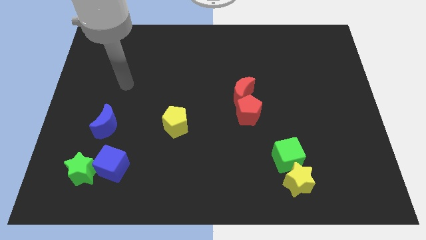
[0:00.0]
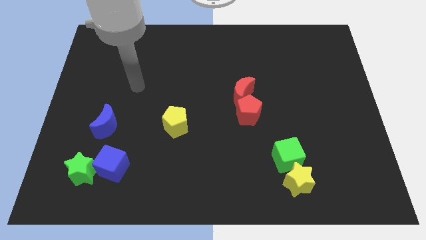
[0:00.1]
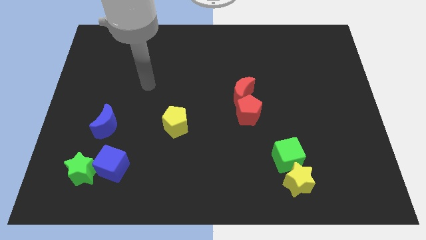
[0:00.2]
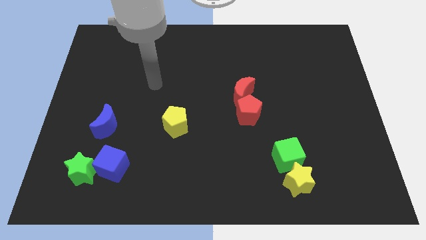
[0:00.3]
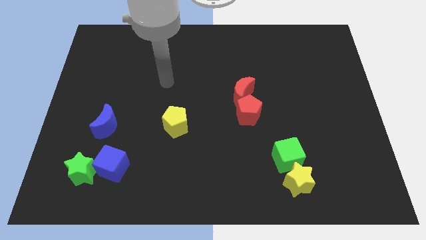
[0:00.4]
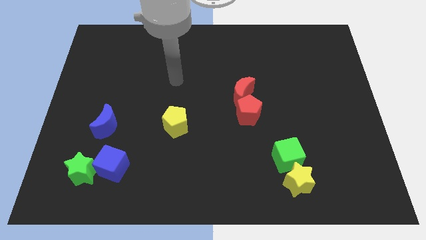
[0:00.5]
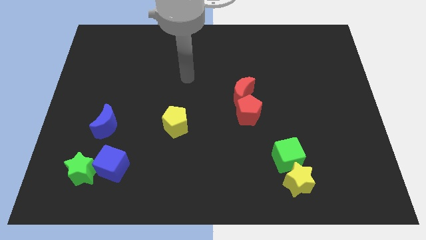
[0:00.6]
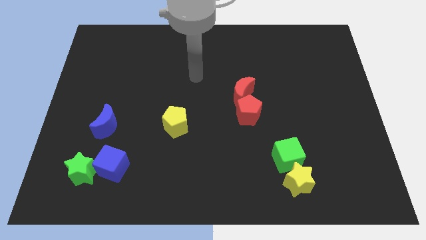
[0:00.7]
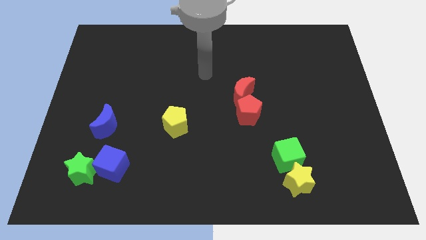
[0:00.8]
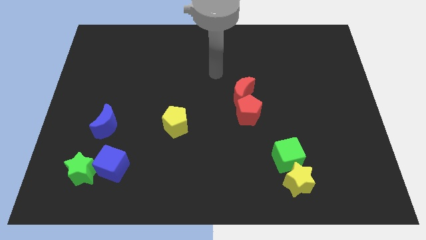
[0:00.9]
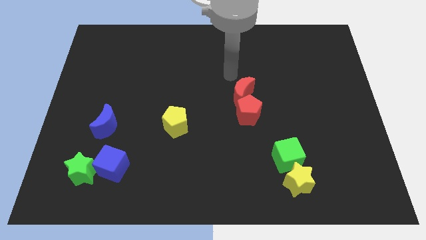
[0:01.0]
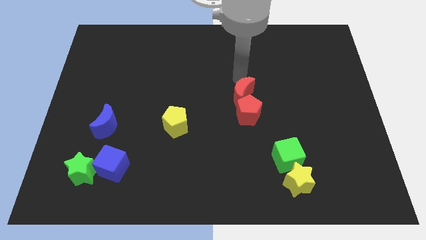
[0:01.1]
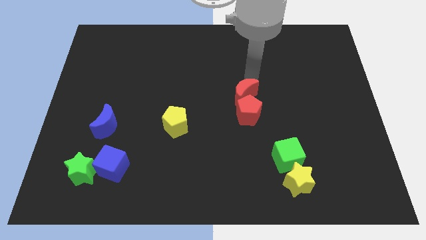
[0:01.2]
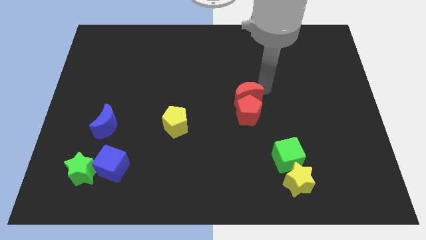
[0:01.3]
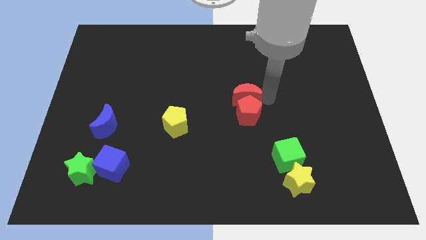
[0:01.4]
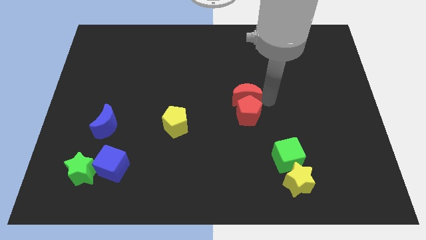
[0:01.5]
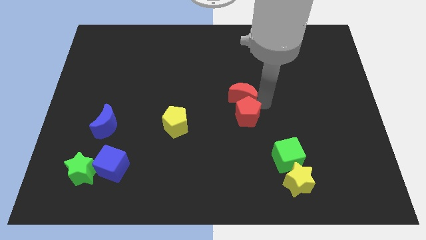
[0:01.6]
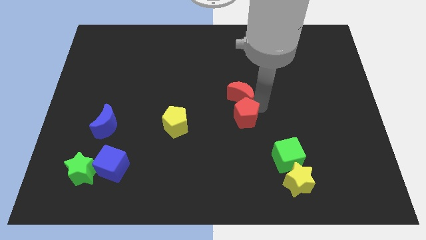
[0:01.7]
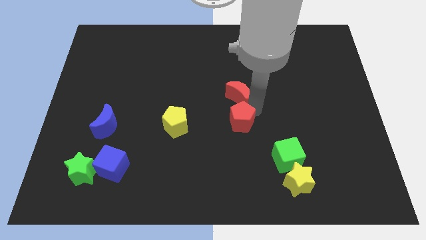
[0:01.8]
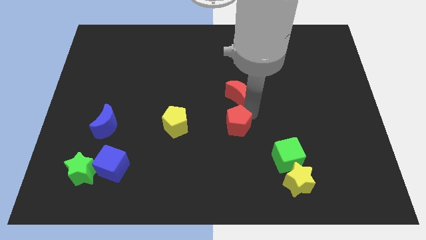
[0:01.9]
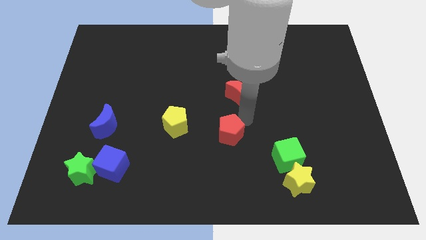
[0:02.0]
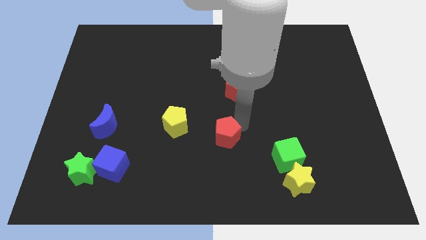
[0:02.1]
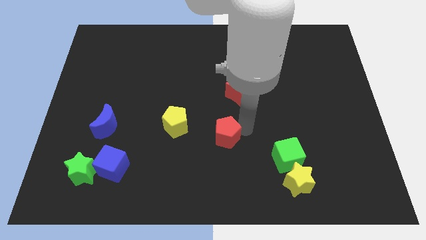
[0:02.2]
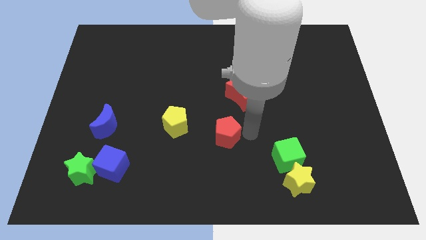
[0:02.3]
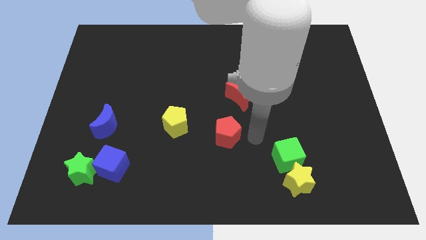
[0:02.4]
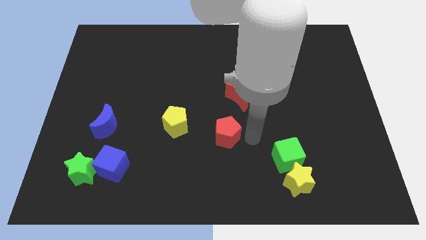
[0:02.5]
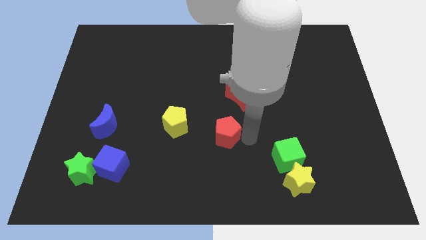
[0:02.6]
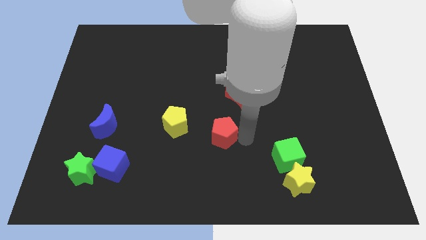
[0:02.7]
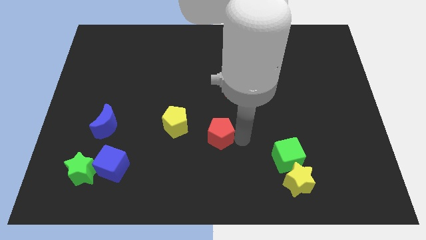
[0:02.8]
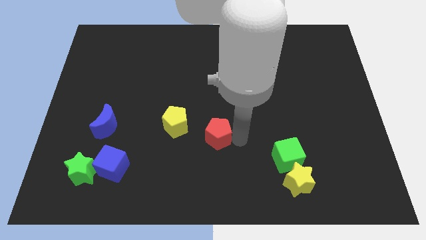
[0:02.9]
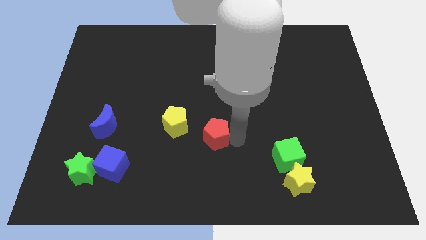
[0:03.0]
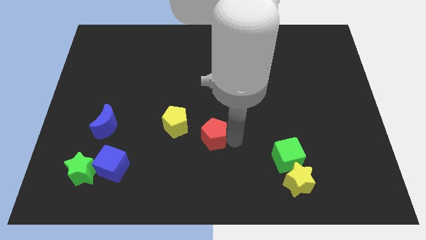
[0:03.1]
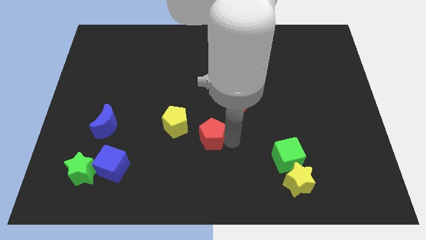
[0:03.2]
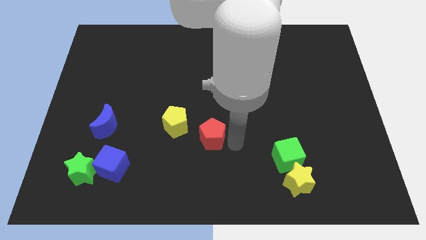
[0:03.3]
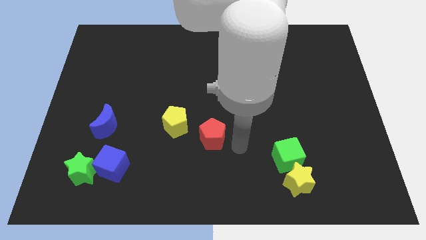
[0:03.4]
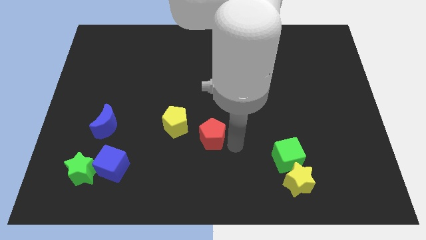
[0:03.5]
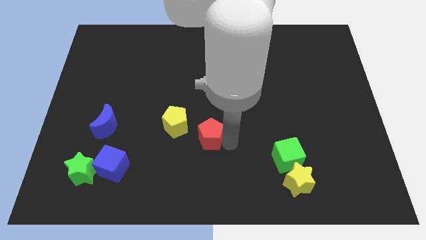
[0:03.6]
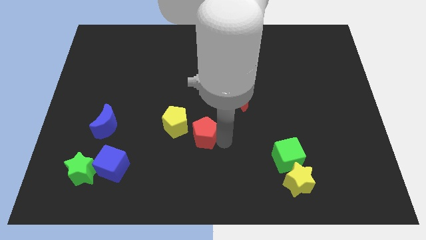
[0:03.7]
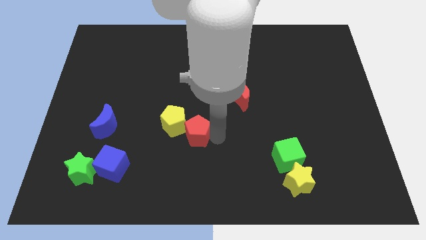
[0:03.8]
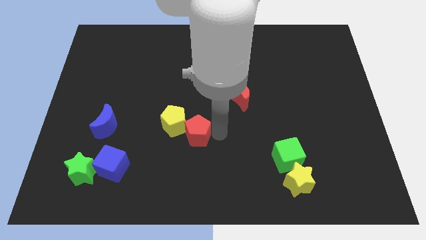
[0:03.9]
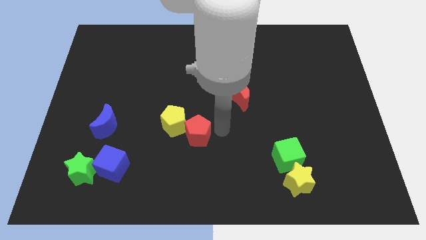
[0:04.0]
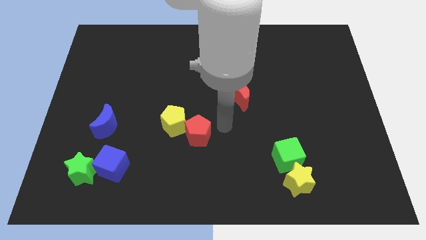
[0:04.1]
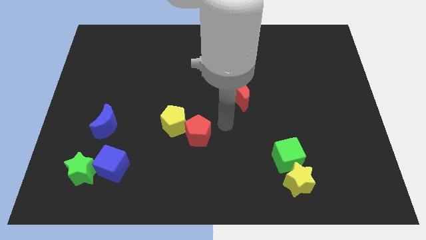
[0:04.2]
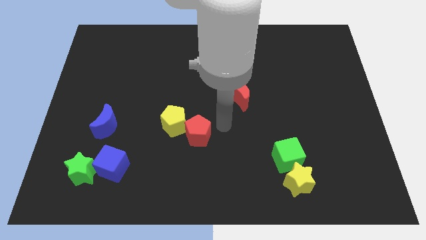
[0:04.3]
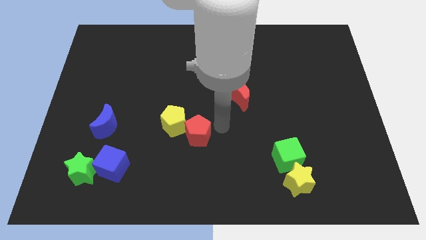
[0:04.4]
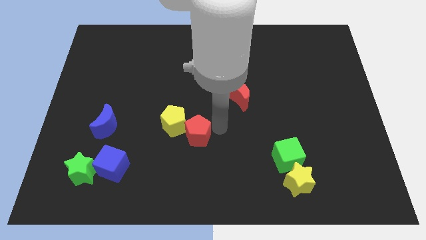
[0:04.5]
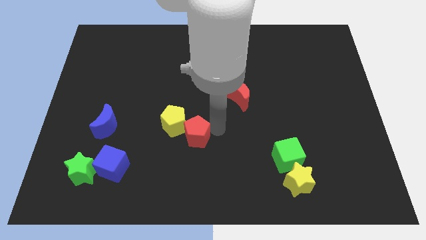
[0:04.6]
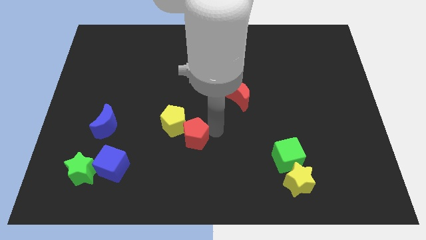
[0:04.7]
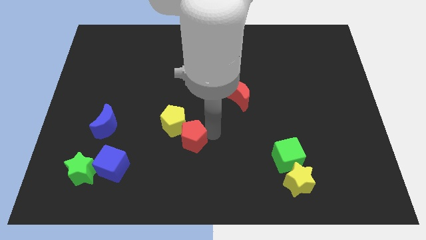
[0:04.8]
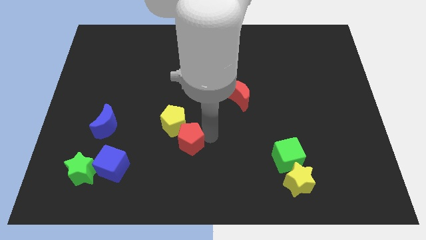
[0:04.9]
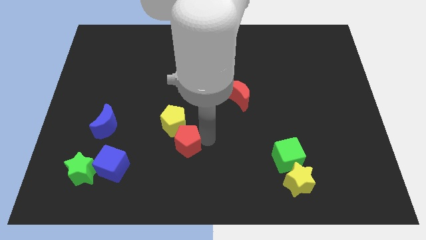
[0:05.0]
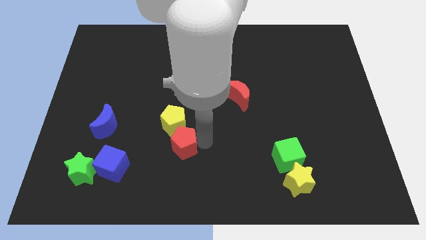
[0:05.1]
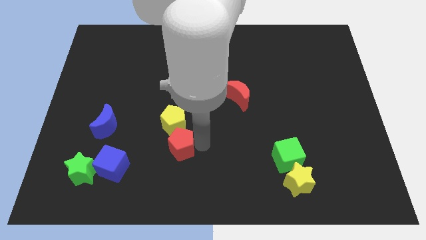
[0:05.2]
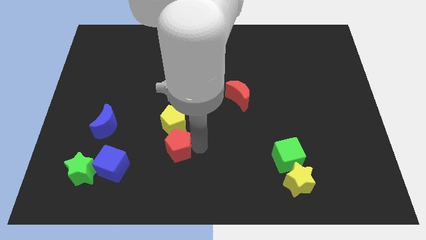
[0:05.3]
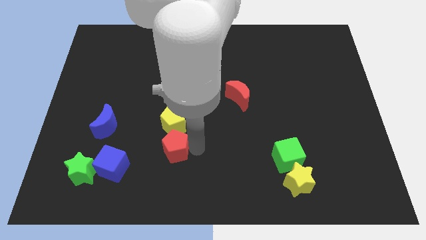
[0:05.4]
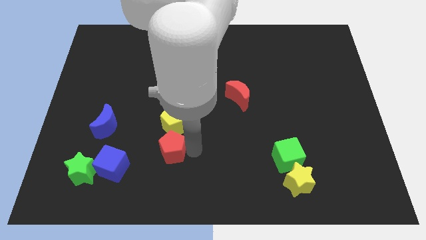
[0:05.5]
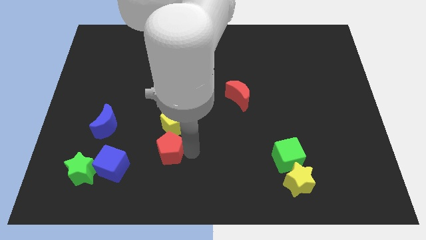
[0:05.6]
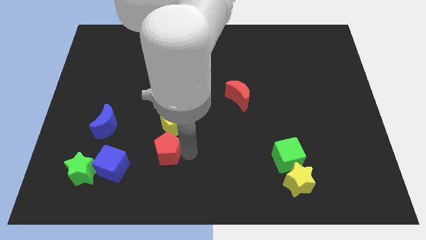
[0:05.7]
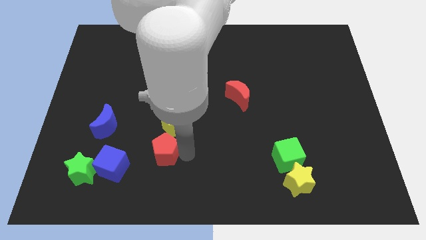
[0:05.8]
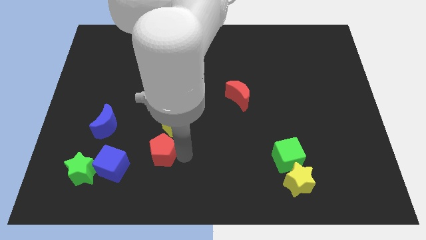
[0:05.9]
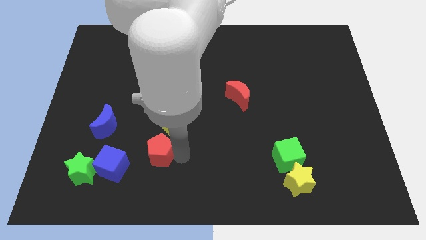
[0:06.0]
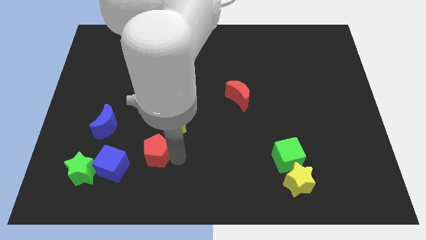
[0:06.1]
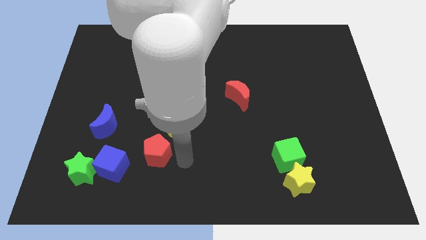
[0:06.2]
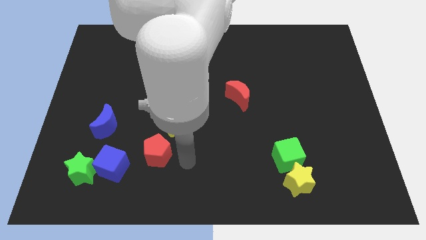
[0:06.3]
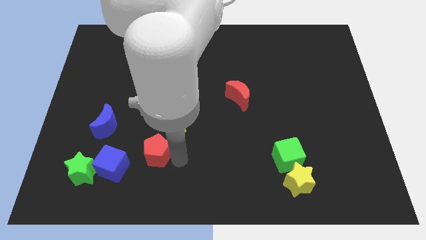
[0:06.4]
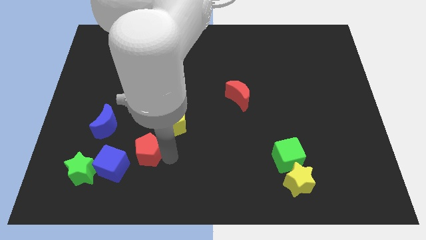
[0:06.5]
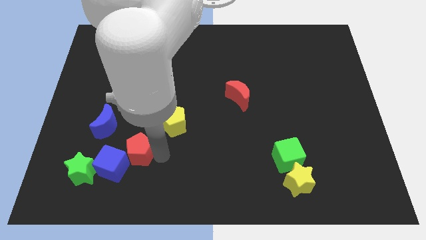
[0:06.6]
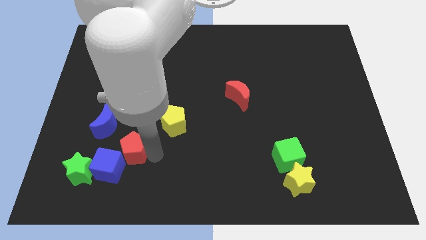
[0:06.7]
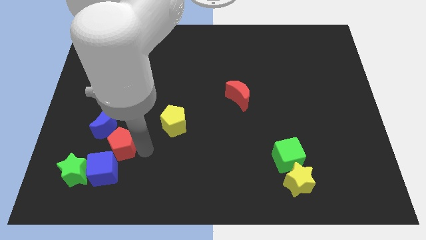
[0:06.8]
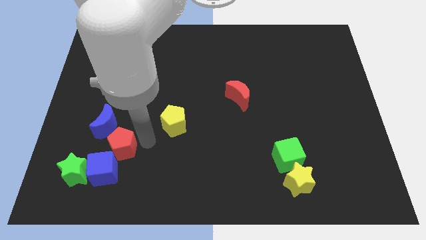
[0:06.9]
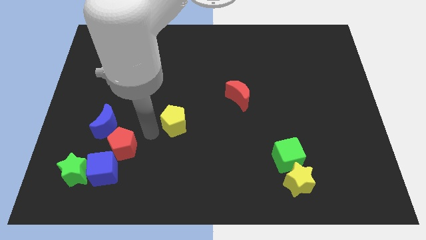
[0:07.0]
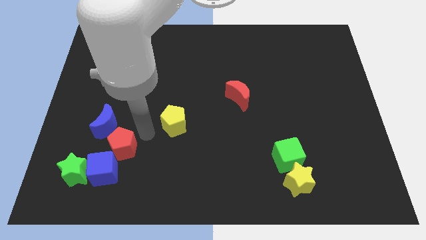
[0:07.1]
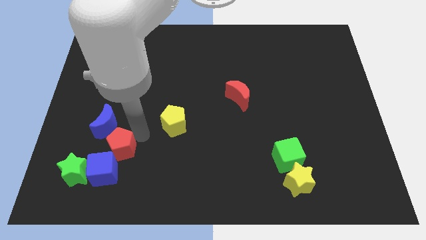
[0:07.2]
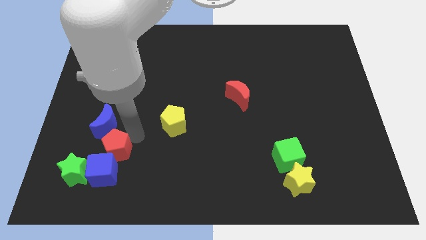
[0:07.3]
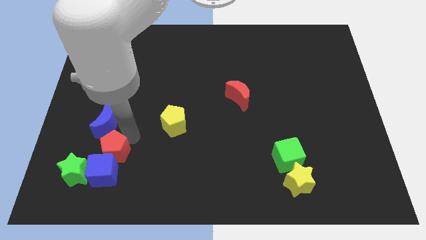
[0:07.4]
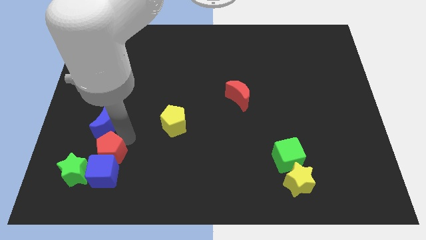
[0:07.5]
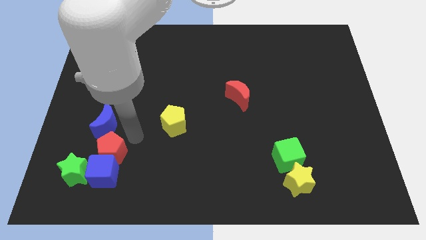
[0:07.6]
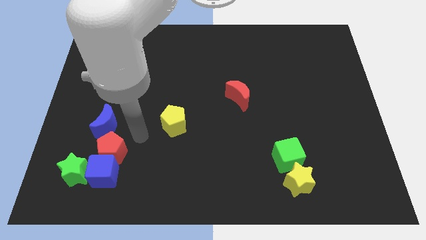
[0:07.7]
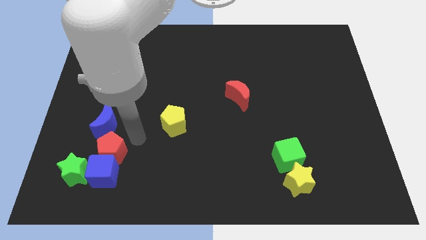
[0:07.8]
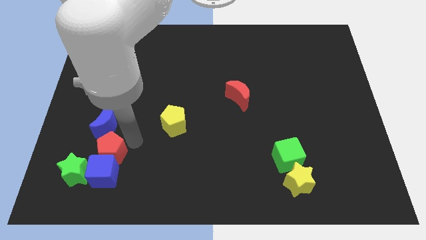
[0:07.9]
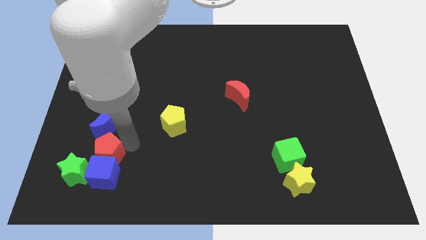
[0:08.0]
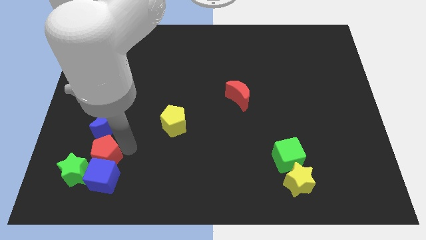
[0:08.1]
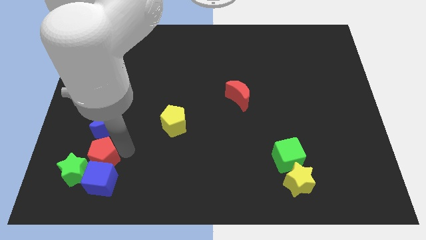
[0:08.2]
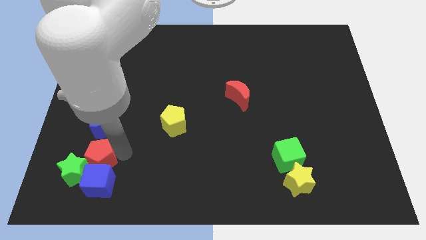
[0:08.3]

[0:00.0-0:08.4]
move the red pentagon to the green star
